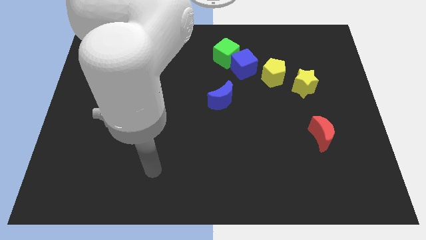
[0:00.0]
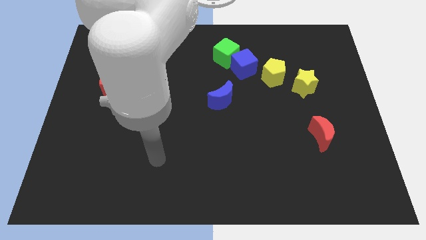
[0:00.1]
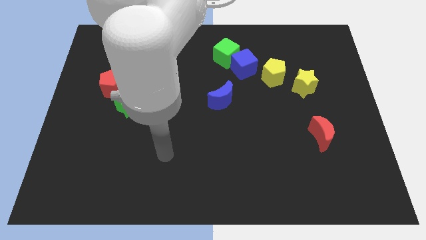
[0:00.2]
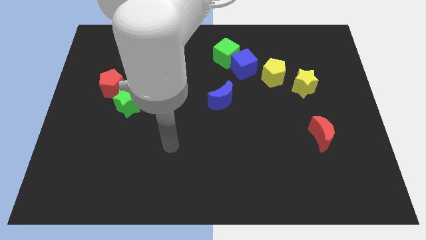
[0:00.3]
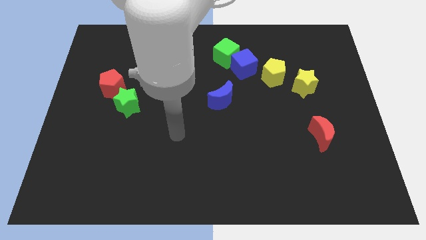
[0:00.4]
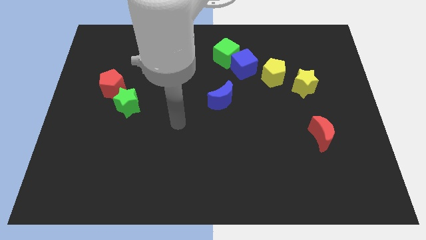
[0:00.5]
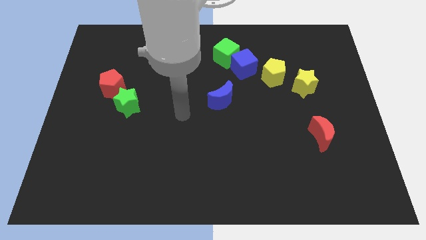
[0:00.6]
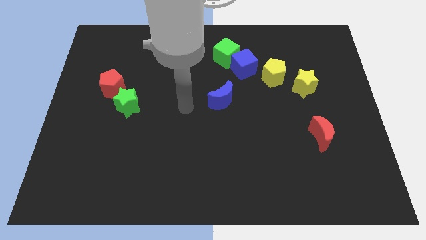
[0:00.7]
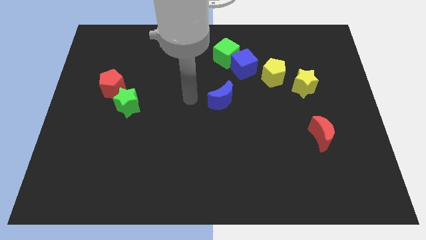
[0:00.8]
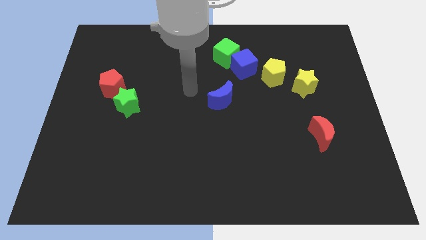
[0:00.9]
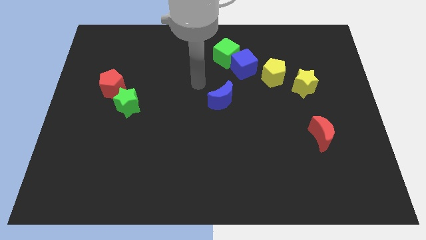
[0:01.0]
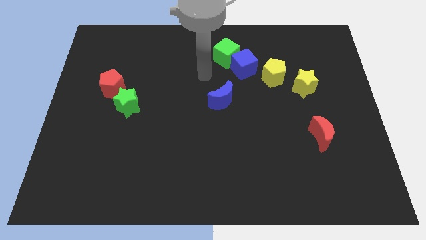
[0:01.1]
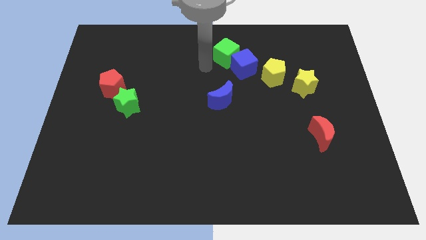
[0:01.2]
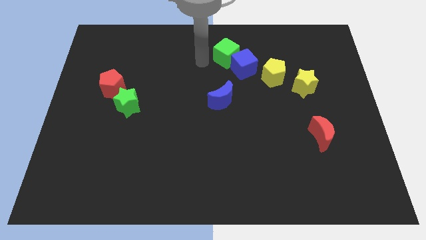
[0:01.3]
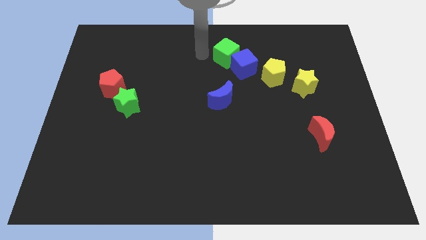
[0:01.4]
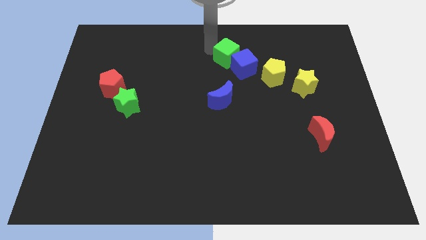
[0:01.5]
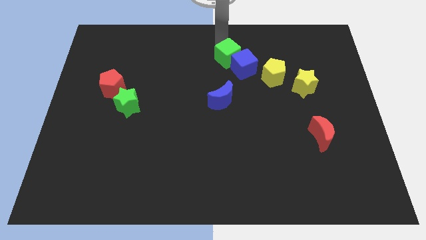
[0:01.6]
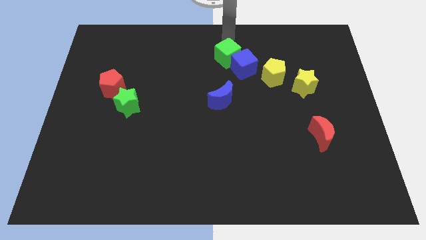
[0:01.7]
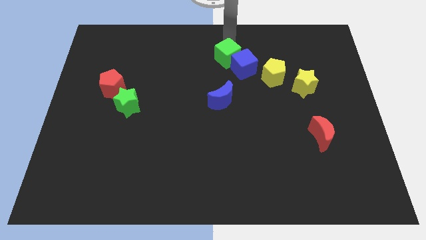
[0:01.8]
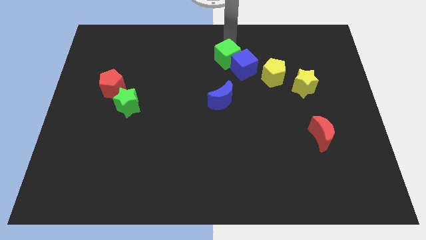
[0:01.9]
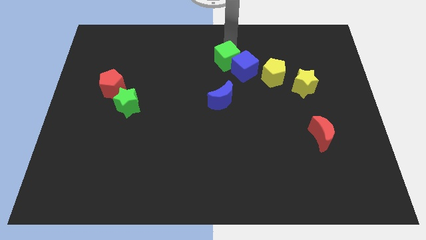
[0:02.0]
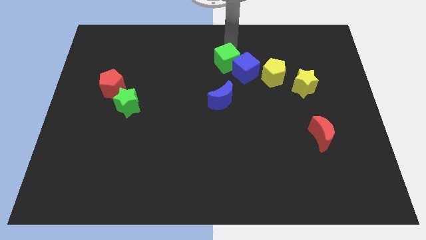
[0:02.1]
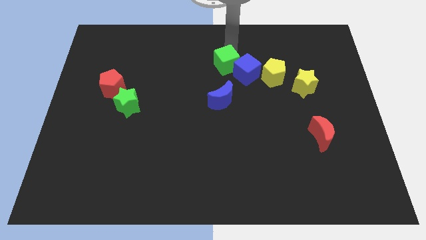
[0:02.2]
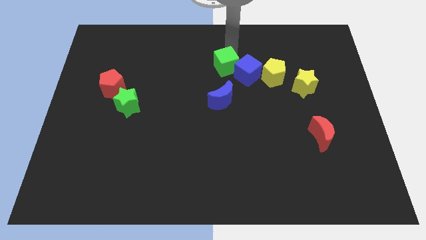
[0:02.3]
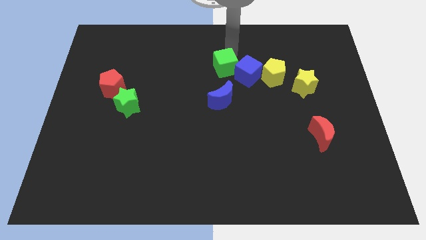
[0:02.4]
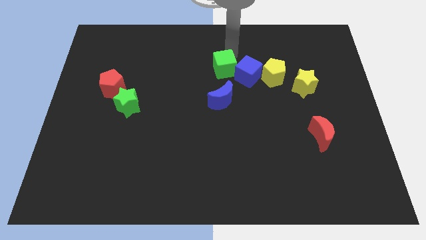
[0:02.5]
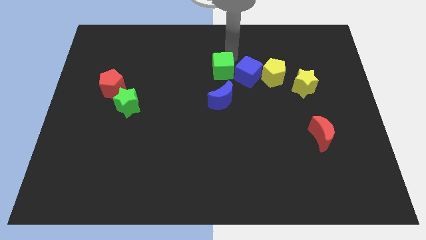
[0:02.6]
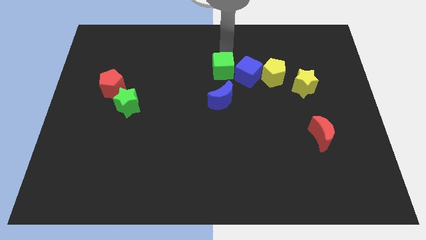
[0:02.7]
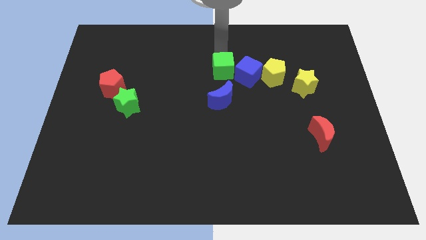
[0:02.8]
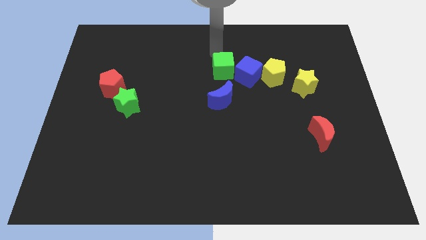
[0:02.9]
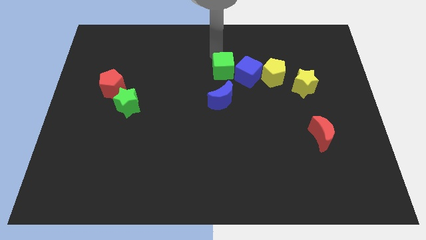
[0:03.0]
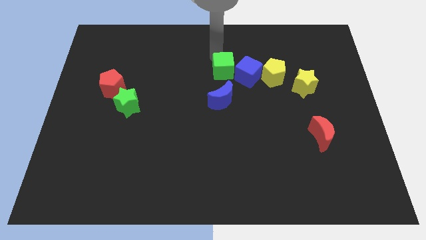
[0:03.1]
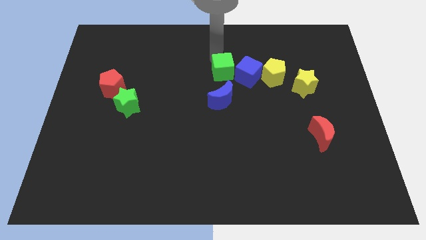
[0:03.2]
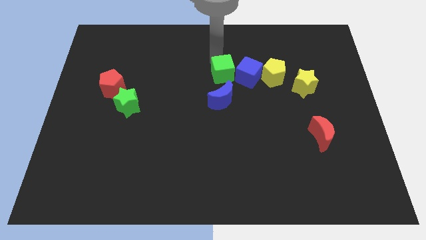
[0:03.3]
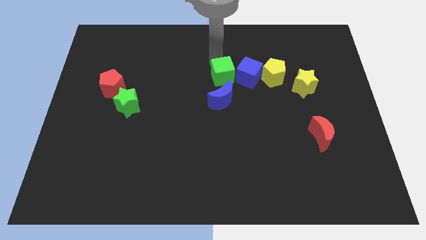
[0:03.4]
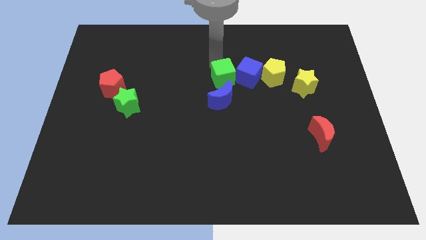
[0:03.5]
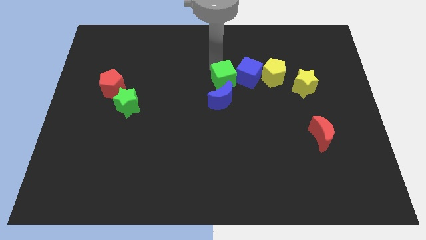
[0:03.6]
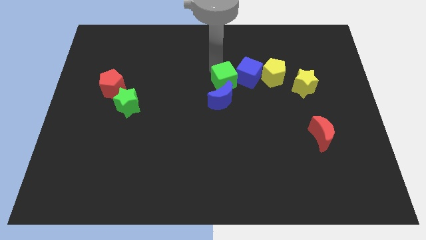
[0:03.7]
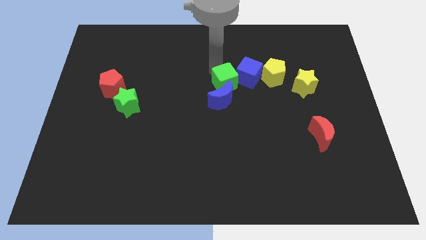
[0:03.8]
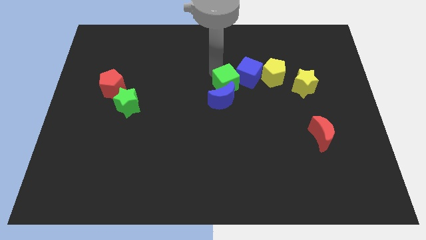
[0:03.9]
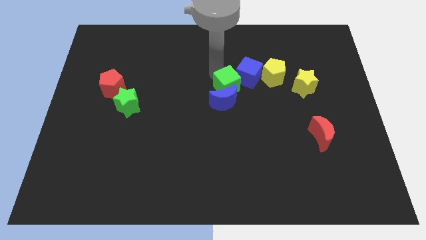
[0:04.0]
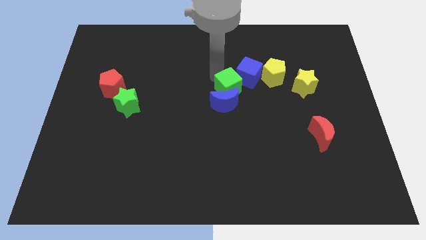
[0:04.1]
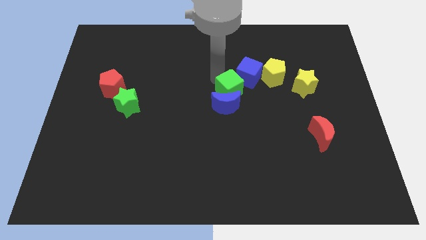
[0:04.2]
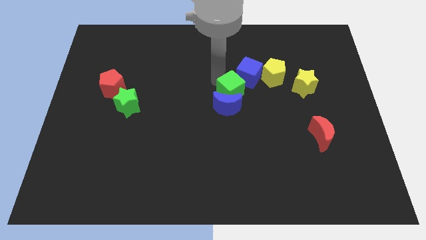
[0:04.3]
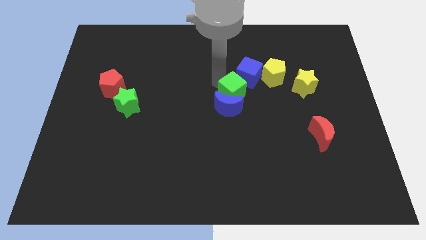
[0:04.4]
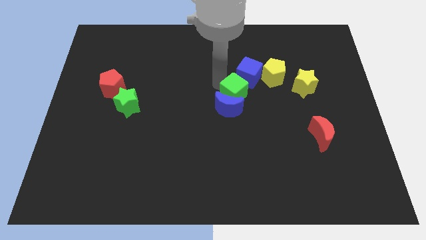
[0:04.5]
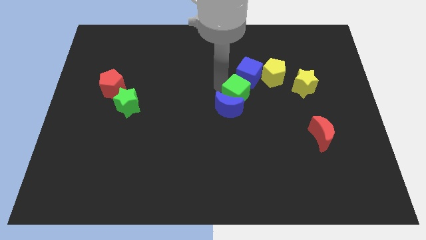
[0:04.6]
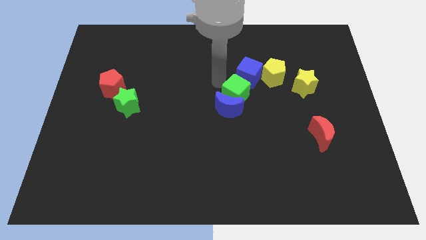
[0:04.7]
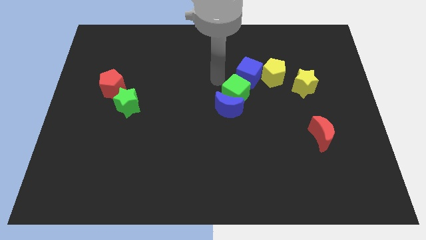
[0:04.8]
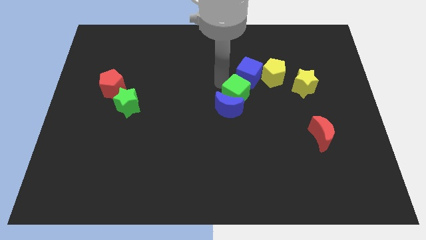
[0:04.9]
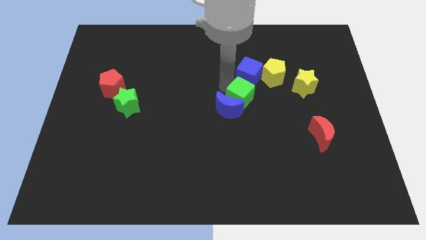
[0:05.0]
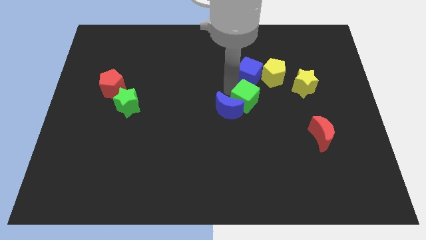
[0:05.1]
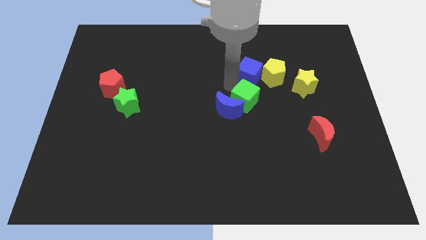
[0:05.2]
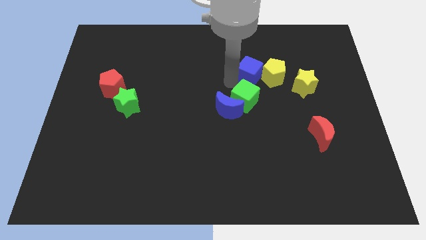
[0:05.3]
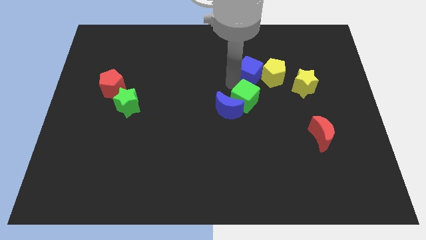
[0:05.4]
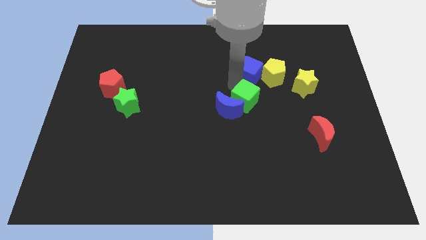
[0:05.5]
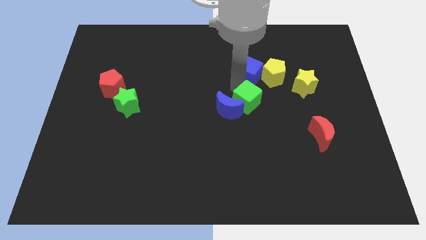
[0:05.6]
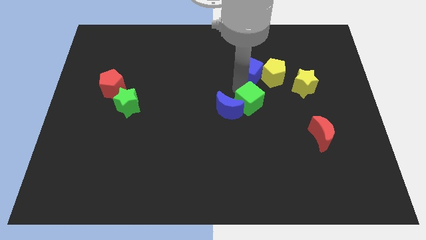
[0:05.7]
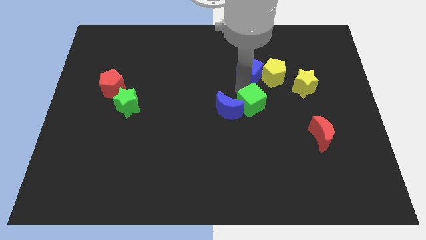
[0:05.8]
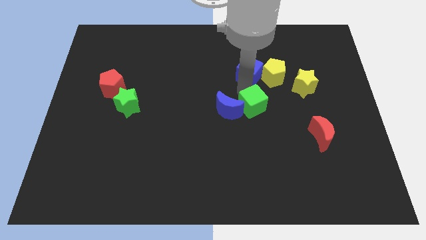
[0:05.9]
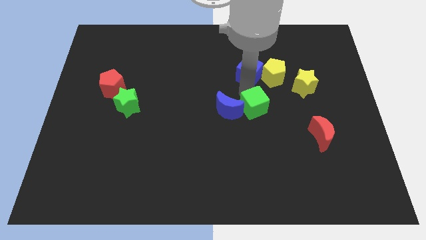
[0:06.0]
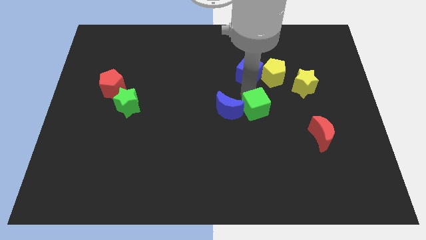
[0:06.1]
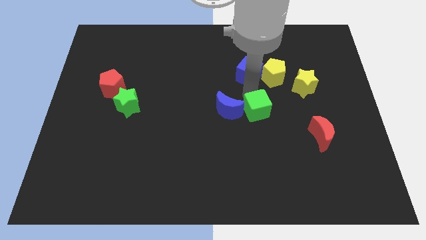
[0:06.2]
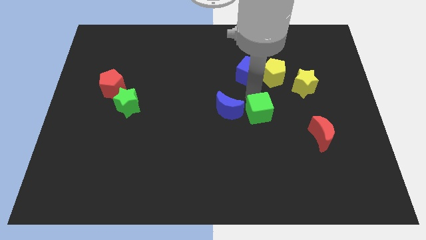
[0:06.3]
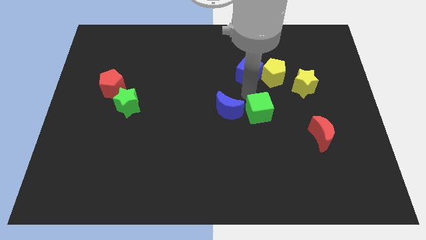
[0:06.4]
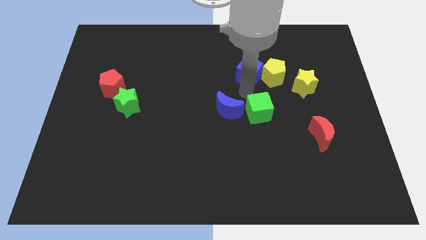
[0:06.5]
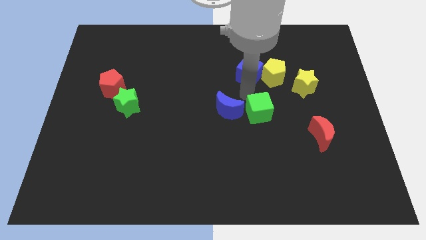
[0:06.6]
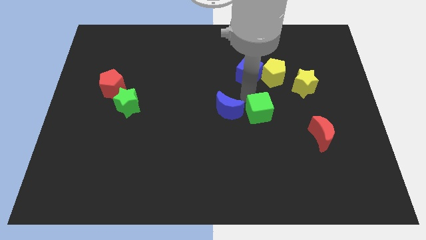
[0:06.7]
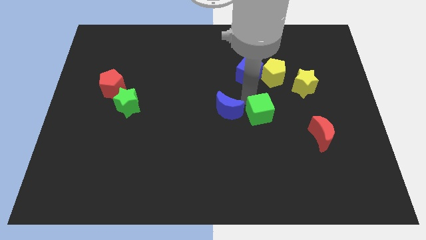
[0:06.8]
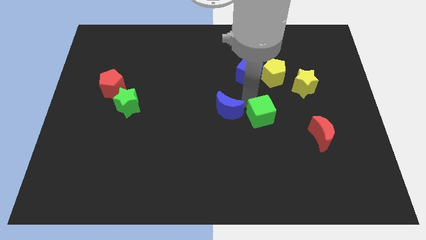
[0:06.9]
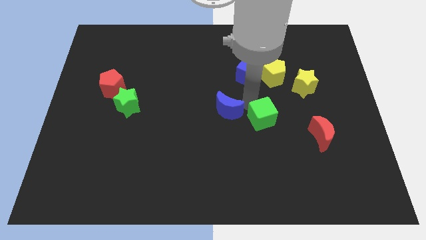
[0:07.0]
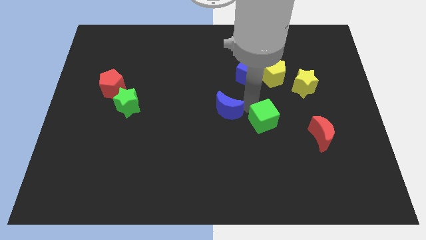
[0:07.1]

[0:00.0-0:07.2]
put the green cube to the left of the red moon
